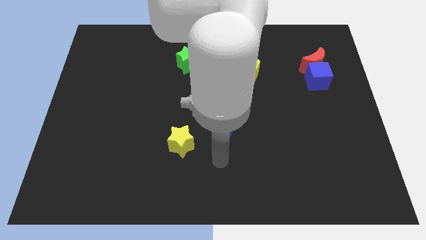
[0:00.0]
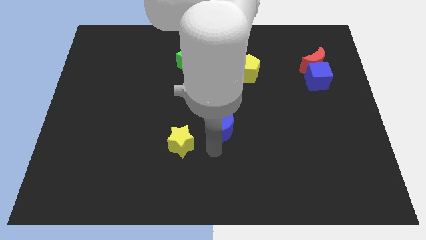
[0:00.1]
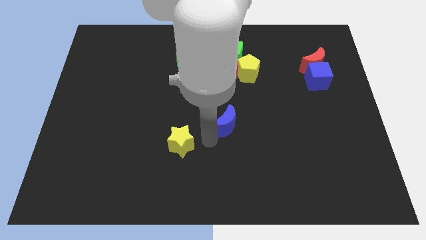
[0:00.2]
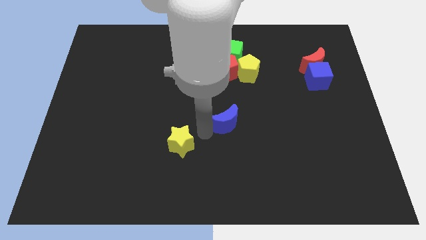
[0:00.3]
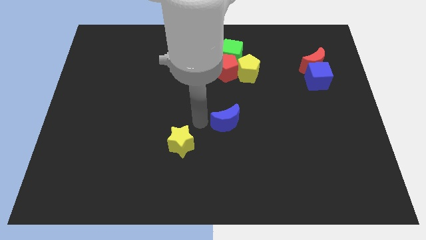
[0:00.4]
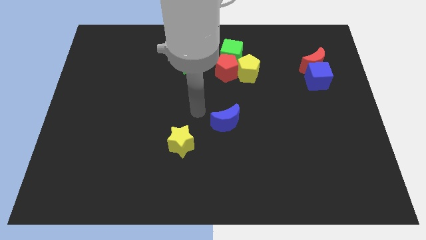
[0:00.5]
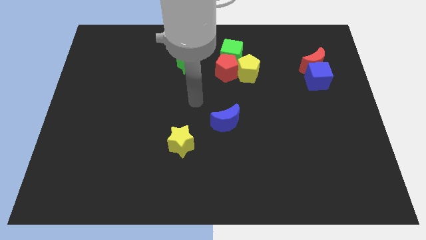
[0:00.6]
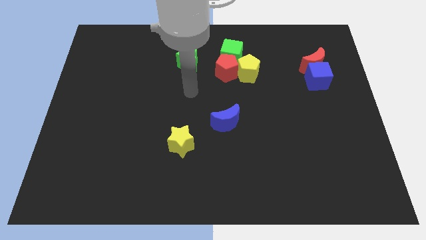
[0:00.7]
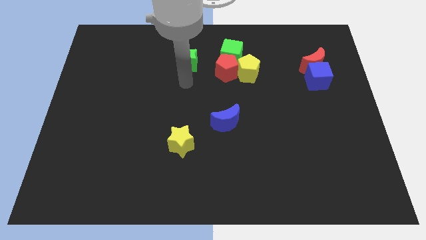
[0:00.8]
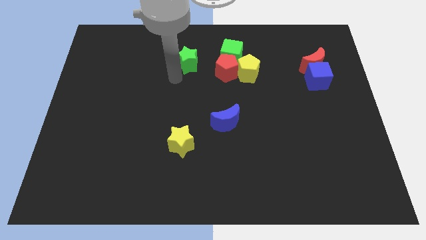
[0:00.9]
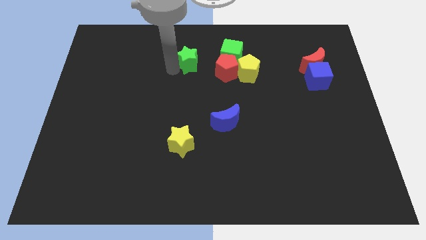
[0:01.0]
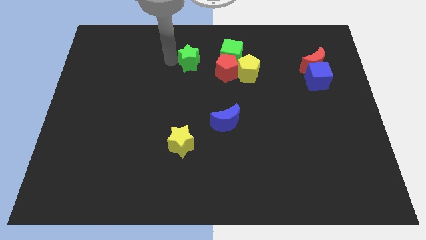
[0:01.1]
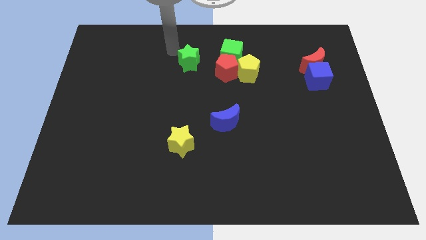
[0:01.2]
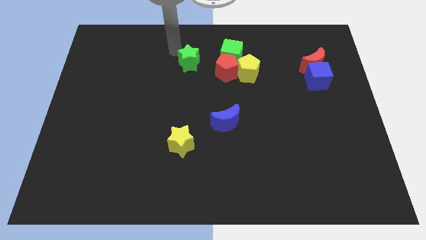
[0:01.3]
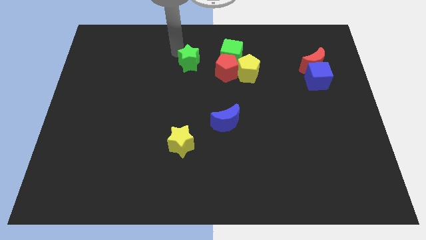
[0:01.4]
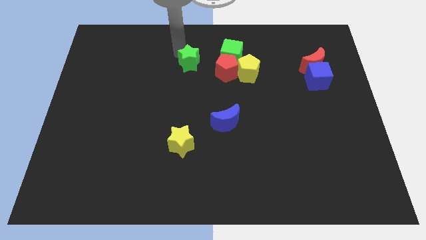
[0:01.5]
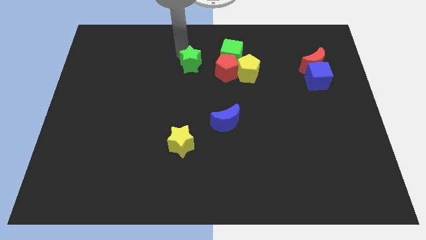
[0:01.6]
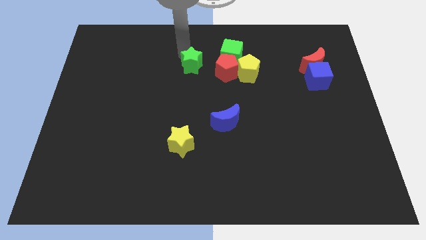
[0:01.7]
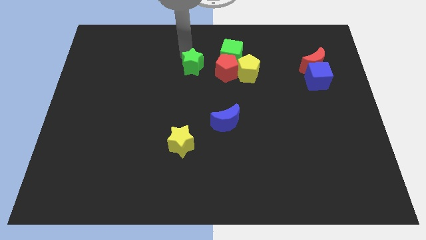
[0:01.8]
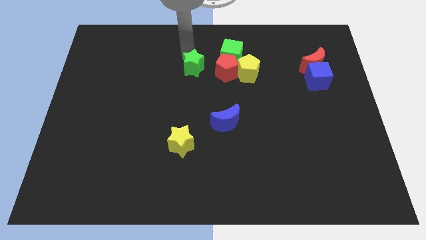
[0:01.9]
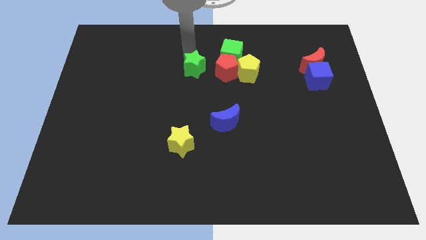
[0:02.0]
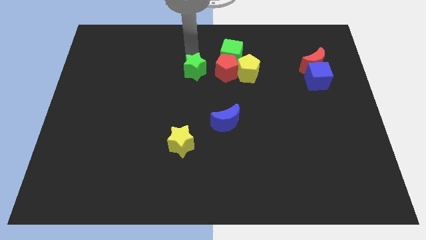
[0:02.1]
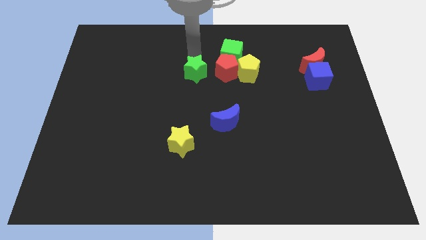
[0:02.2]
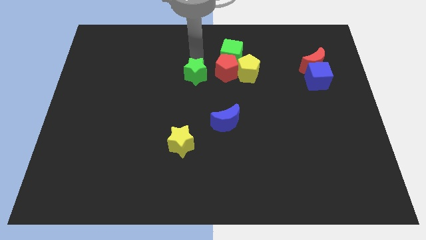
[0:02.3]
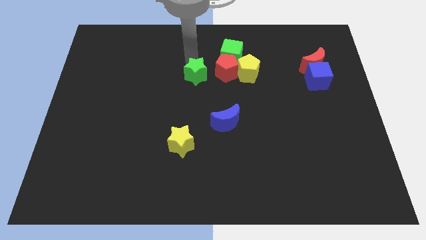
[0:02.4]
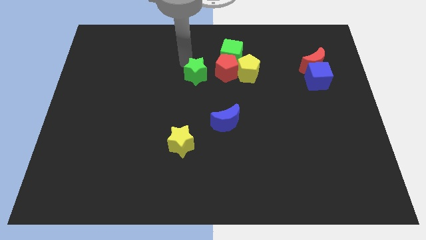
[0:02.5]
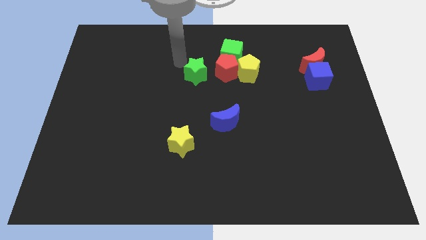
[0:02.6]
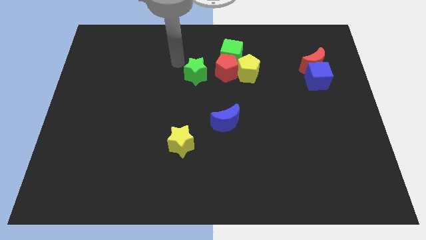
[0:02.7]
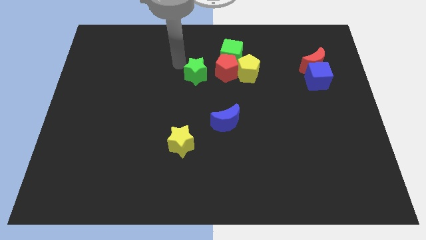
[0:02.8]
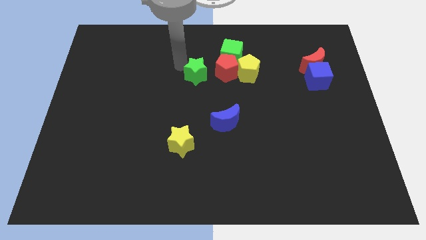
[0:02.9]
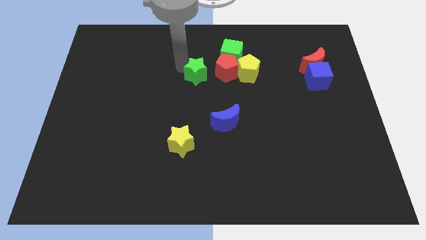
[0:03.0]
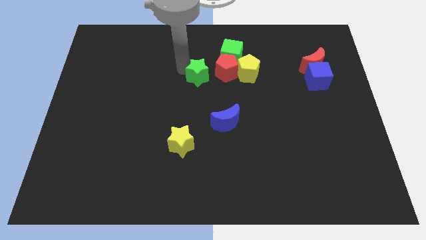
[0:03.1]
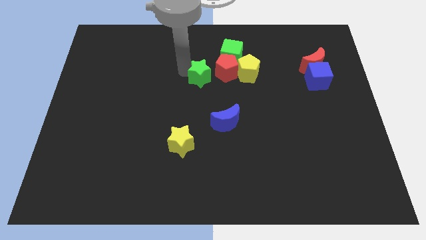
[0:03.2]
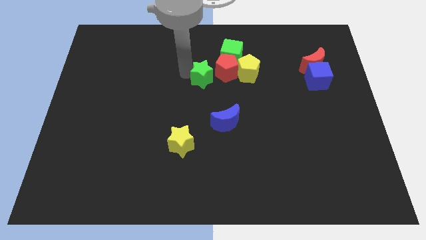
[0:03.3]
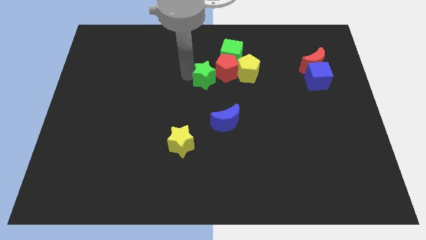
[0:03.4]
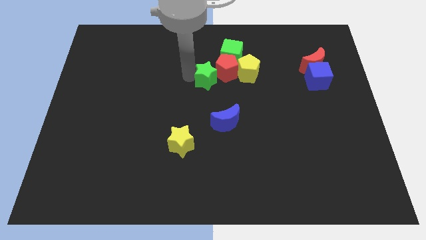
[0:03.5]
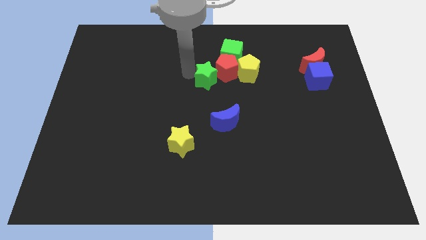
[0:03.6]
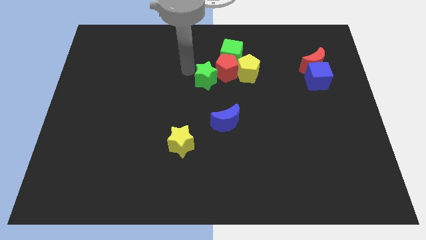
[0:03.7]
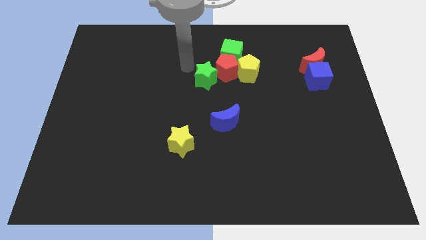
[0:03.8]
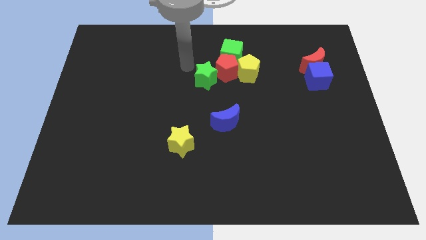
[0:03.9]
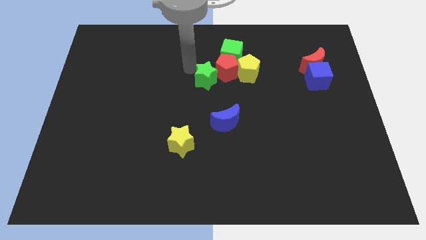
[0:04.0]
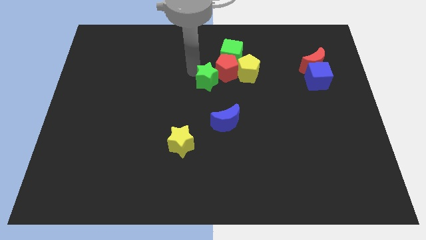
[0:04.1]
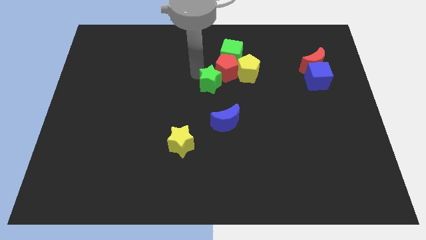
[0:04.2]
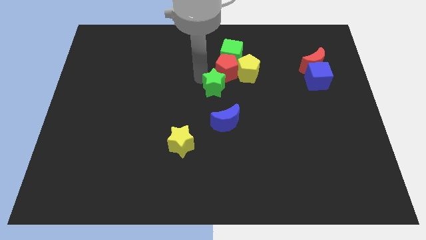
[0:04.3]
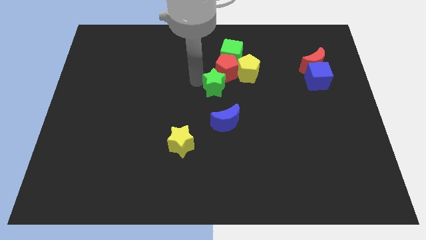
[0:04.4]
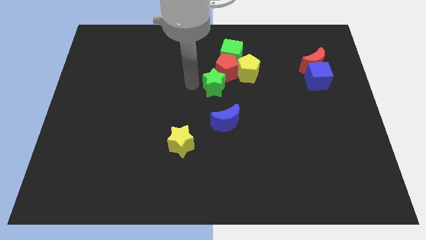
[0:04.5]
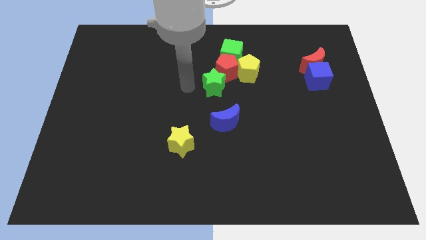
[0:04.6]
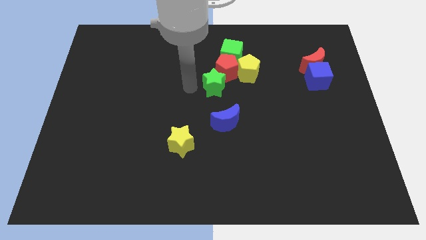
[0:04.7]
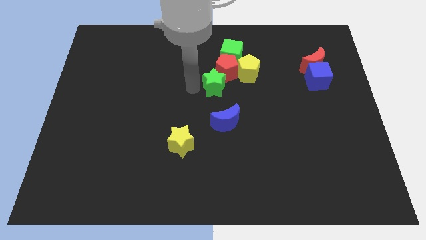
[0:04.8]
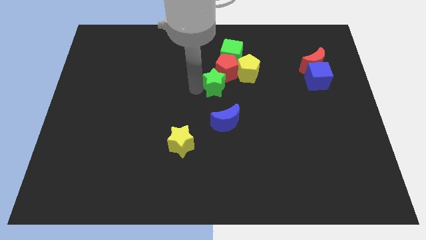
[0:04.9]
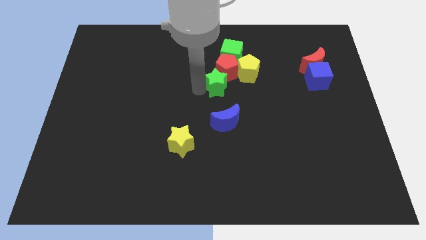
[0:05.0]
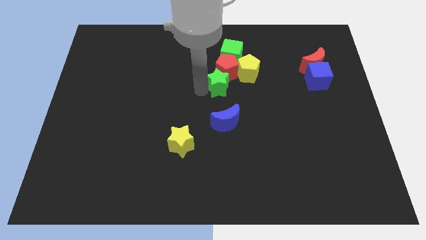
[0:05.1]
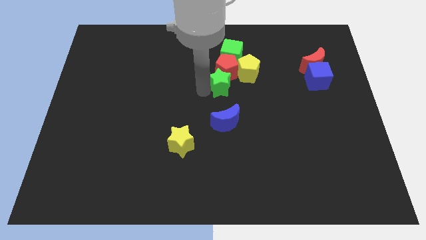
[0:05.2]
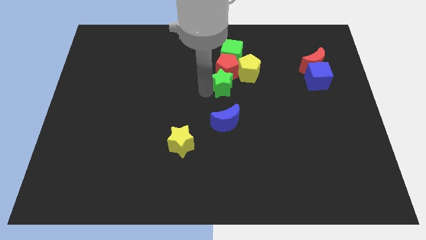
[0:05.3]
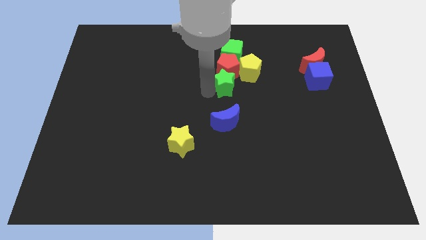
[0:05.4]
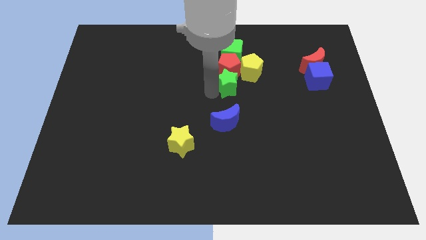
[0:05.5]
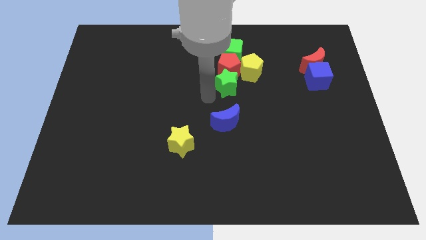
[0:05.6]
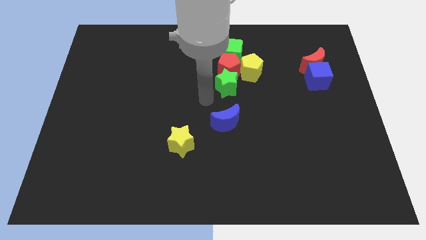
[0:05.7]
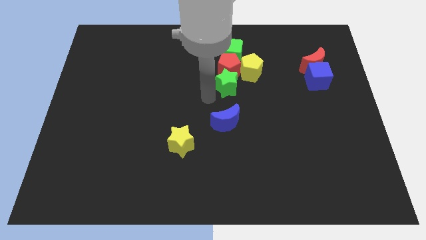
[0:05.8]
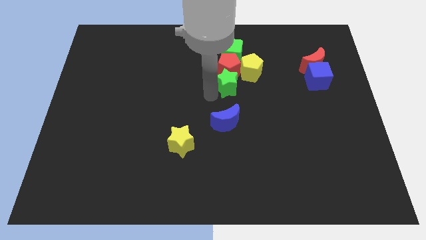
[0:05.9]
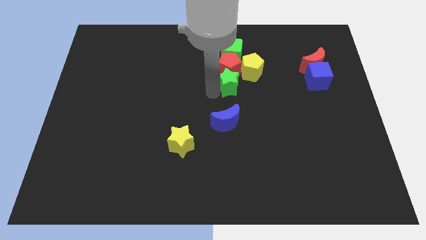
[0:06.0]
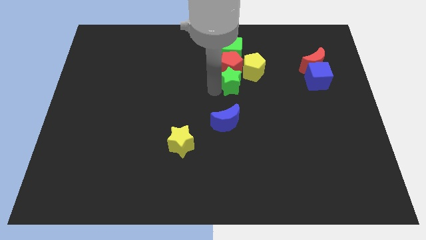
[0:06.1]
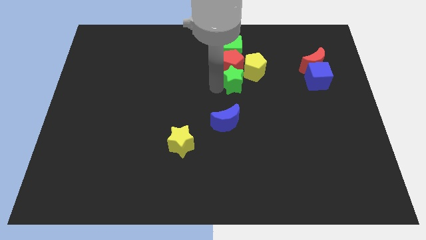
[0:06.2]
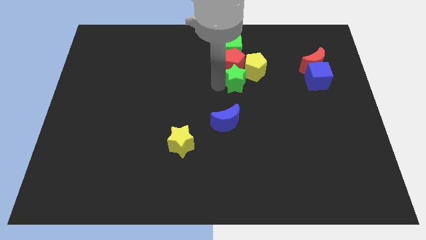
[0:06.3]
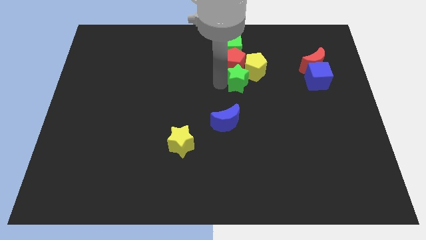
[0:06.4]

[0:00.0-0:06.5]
move the green star to the yellow pentagon

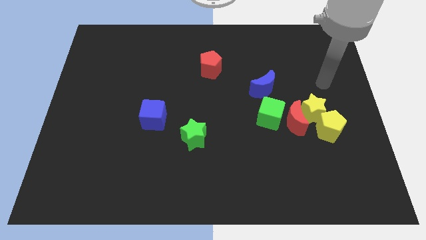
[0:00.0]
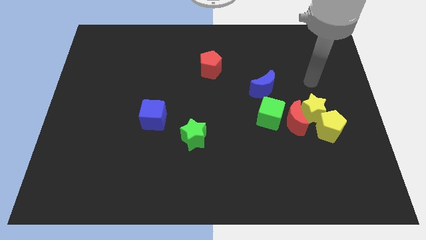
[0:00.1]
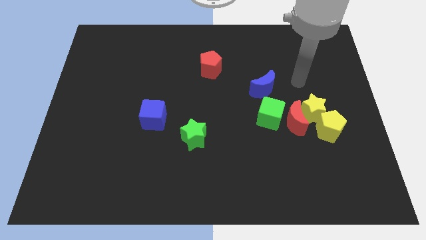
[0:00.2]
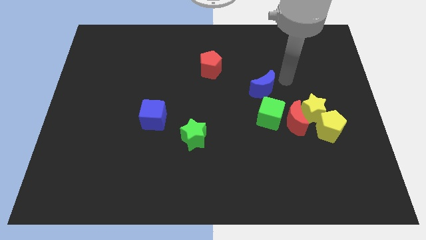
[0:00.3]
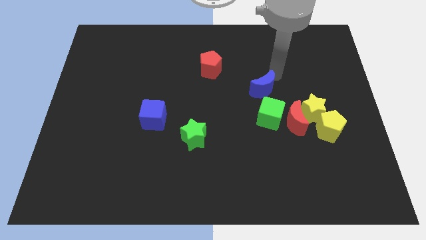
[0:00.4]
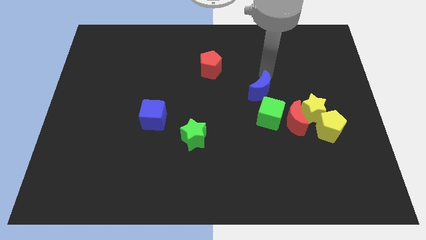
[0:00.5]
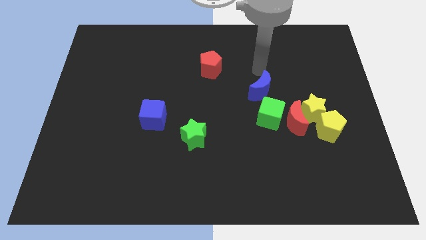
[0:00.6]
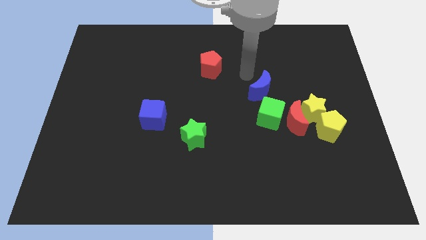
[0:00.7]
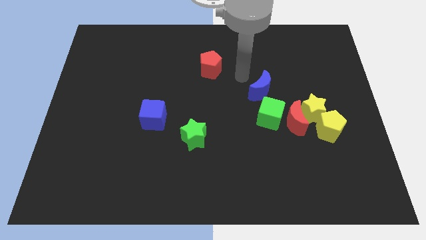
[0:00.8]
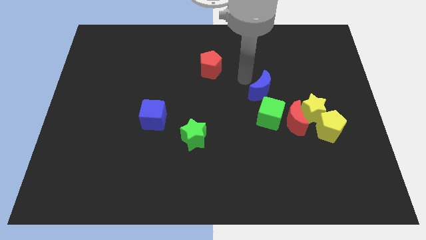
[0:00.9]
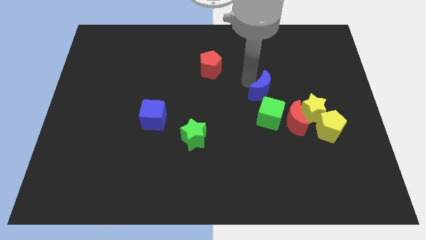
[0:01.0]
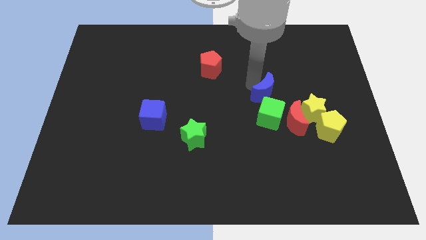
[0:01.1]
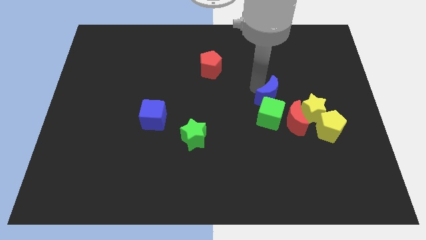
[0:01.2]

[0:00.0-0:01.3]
slide the blue moon towards the green cube
